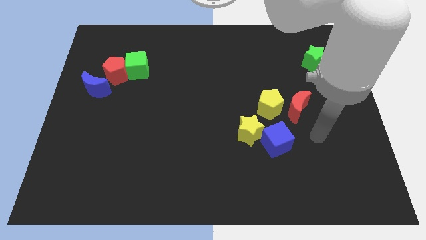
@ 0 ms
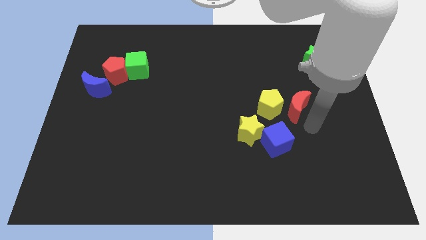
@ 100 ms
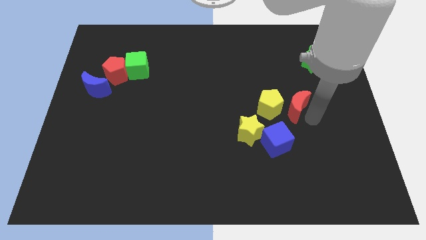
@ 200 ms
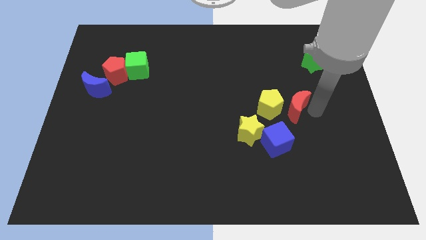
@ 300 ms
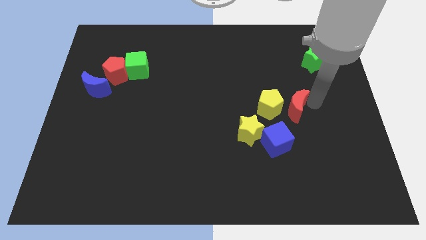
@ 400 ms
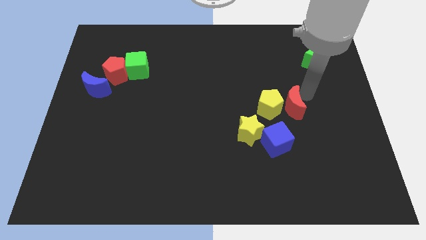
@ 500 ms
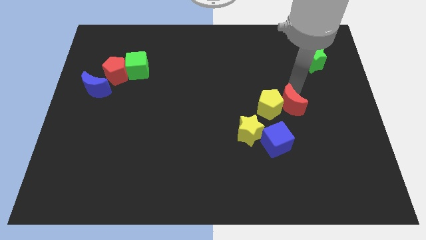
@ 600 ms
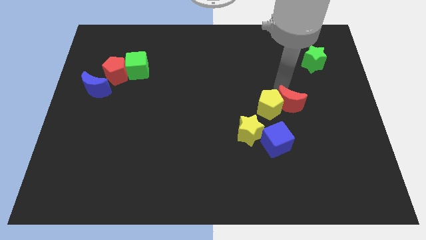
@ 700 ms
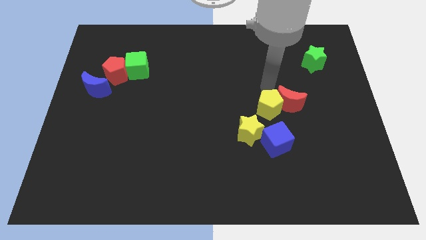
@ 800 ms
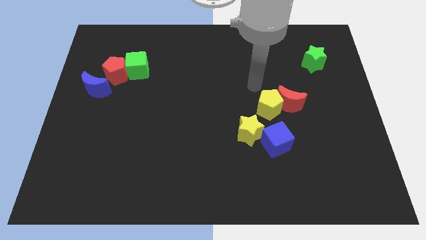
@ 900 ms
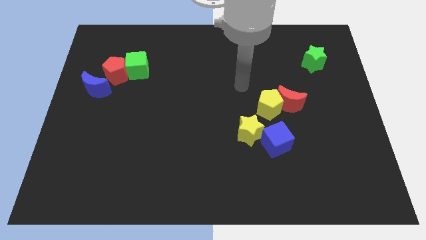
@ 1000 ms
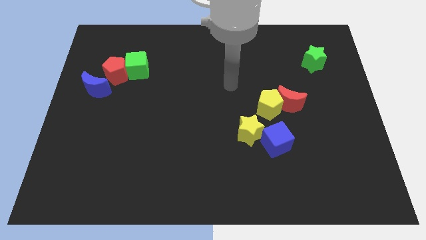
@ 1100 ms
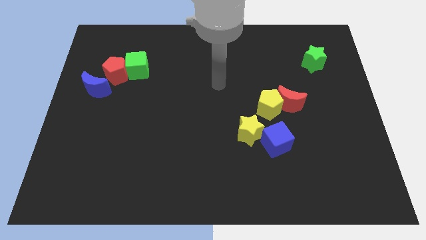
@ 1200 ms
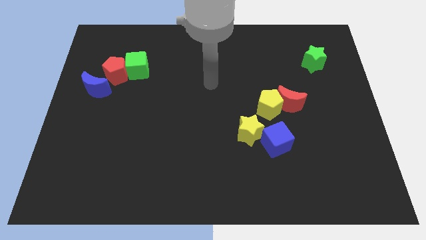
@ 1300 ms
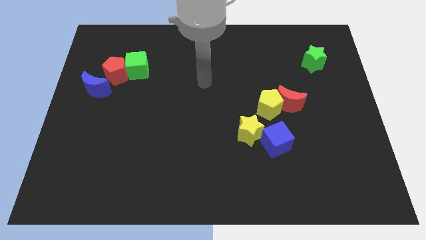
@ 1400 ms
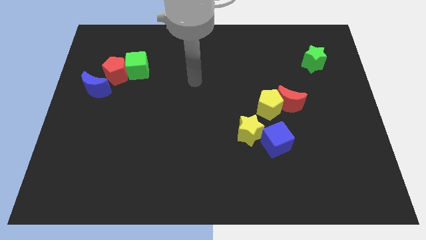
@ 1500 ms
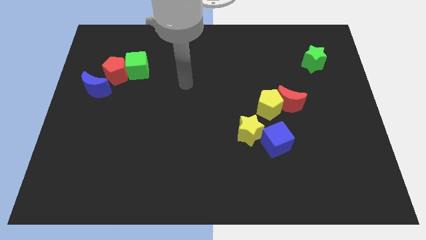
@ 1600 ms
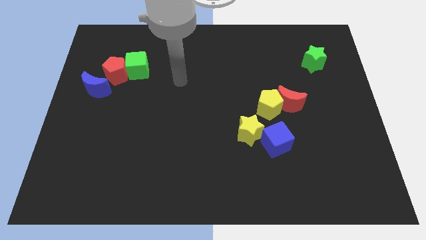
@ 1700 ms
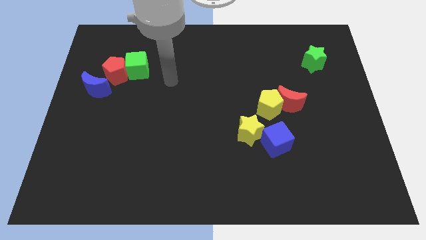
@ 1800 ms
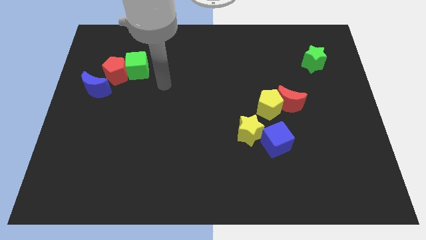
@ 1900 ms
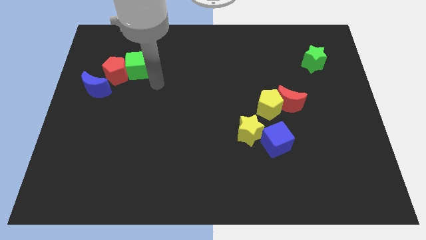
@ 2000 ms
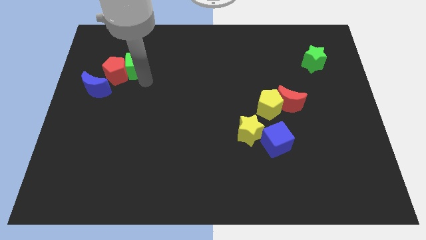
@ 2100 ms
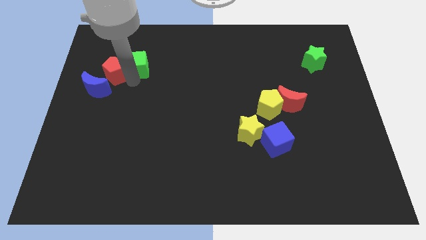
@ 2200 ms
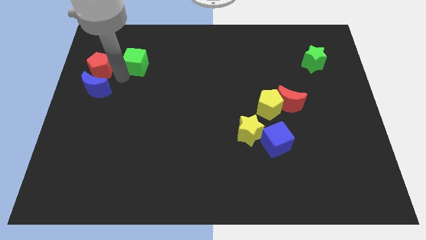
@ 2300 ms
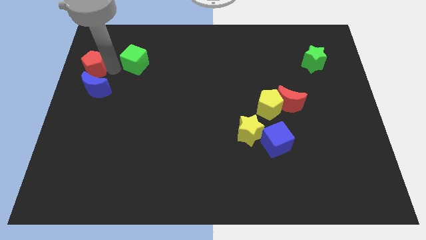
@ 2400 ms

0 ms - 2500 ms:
pull the green cube apart from the red pentagon

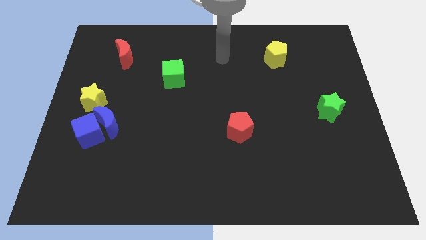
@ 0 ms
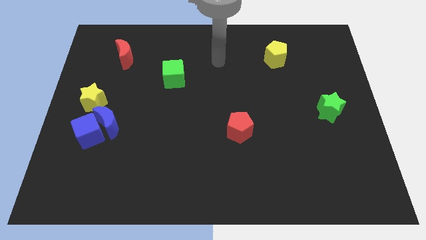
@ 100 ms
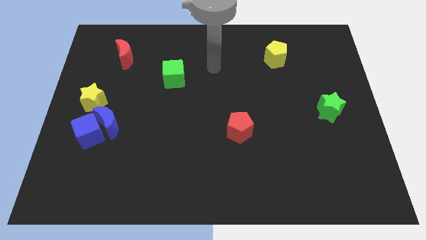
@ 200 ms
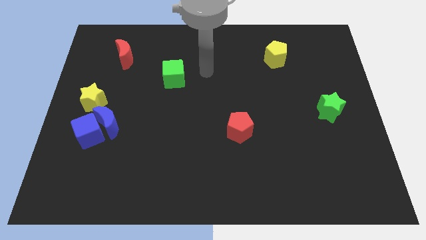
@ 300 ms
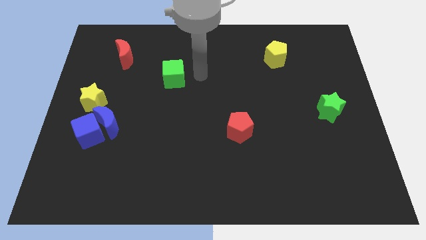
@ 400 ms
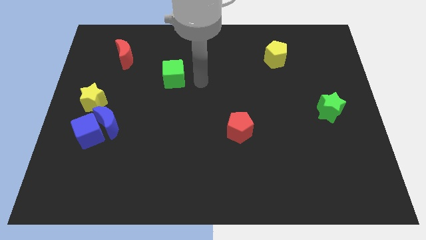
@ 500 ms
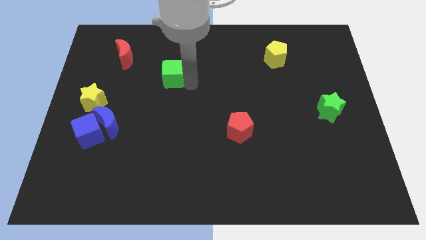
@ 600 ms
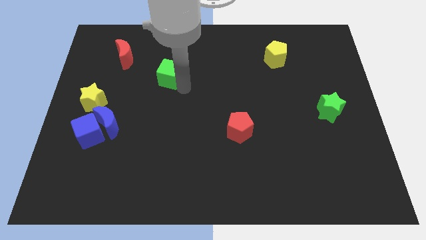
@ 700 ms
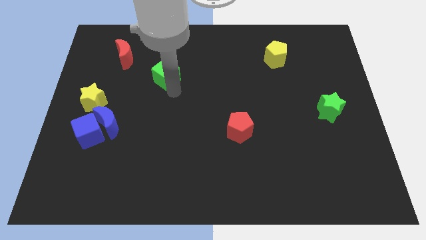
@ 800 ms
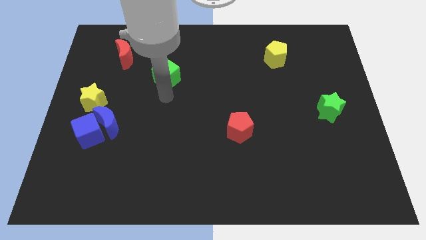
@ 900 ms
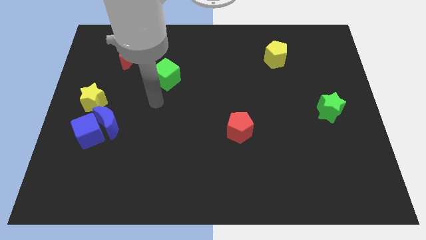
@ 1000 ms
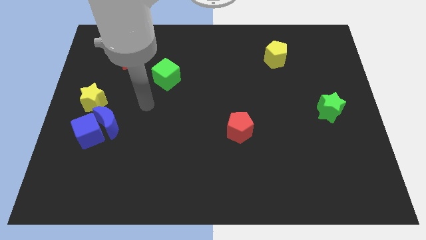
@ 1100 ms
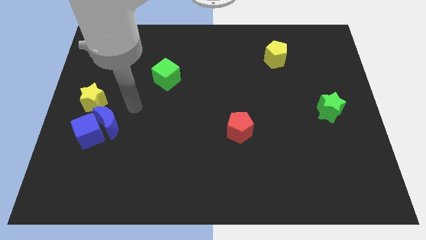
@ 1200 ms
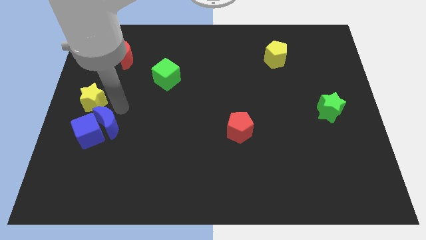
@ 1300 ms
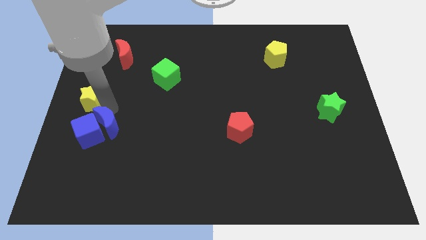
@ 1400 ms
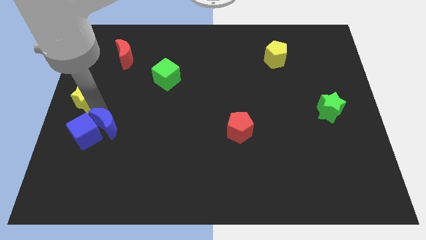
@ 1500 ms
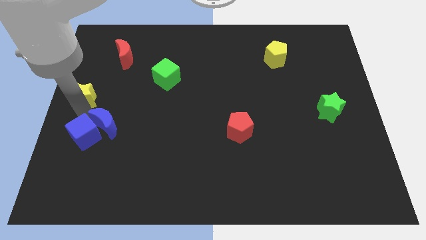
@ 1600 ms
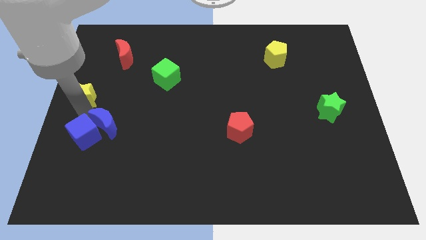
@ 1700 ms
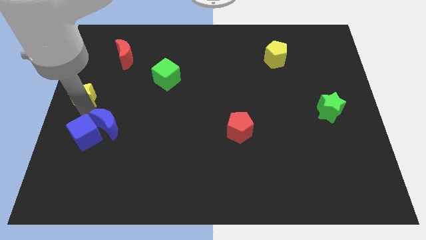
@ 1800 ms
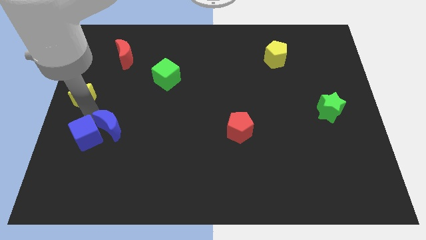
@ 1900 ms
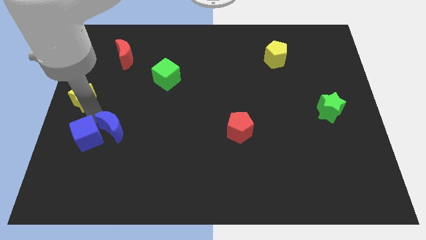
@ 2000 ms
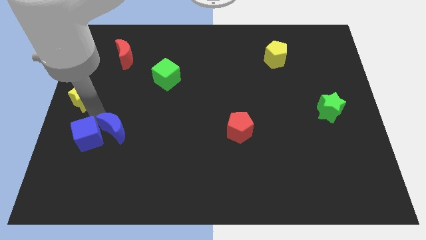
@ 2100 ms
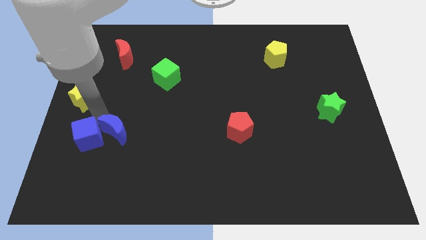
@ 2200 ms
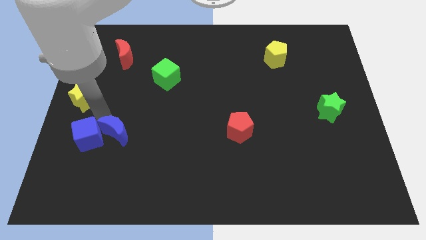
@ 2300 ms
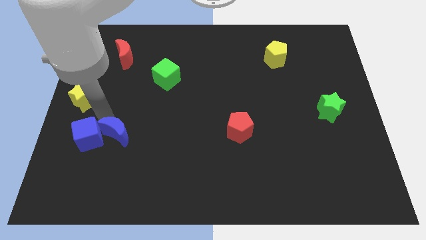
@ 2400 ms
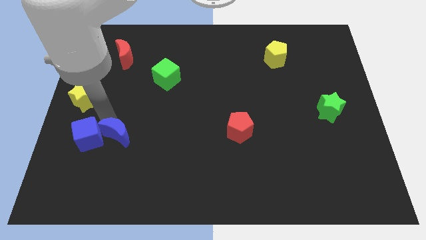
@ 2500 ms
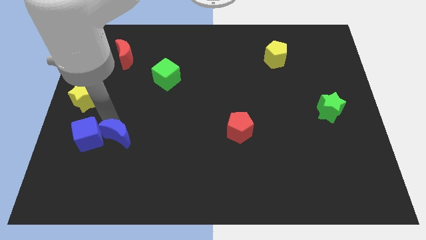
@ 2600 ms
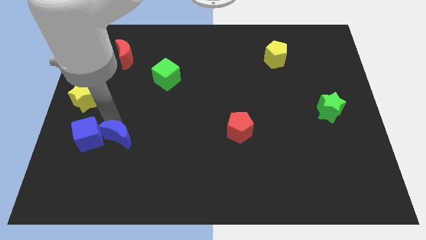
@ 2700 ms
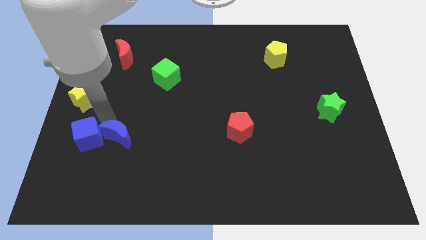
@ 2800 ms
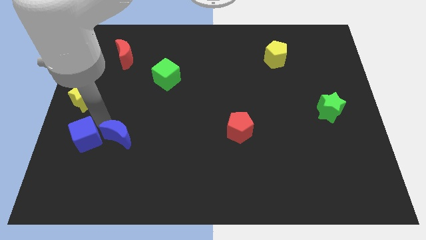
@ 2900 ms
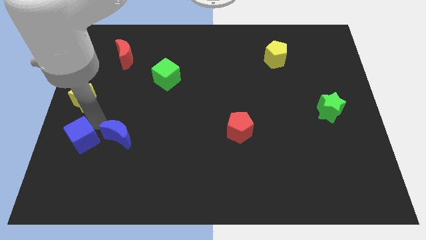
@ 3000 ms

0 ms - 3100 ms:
separate the blue moon from the blue cube and yellow star

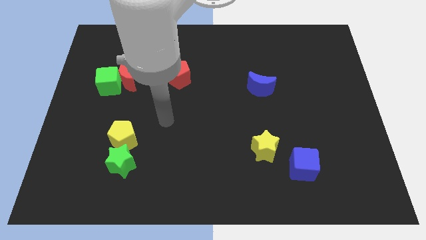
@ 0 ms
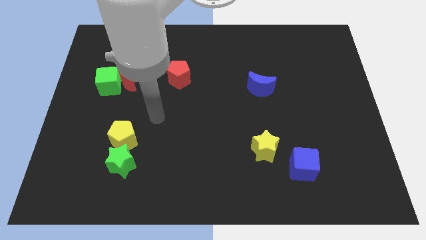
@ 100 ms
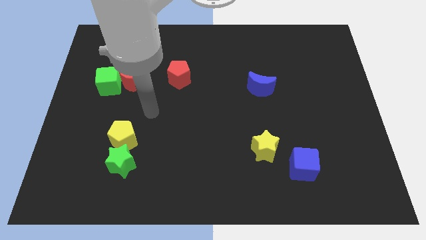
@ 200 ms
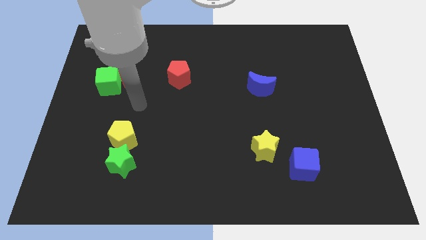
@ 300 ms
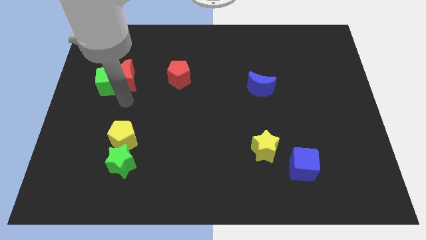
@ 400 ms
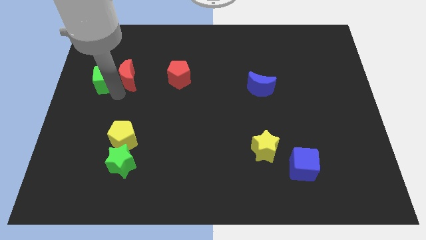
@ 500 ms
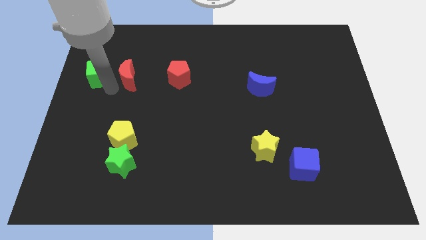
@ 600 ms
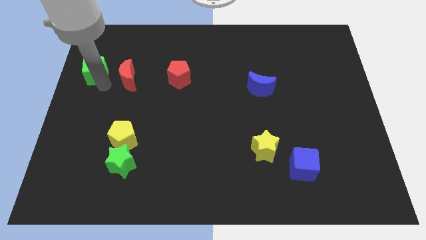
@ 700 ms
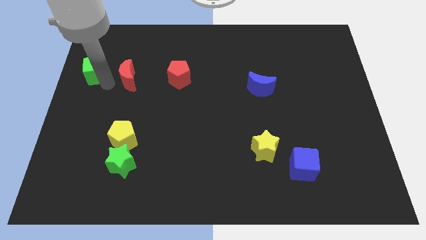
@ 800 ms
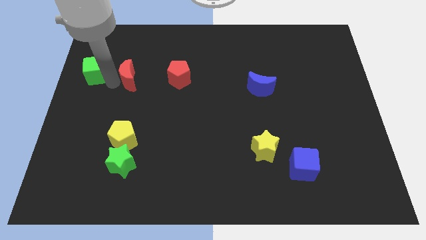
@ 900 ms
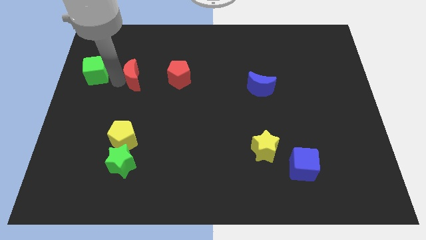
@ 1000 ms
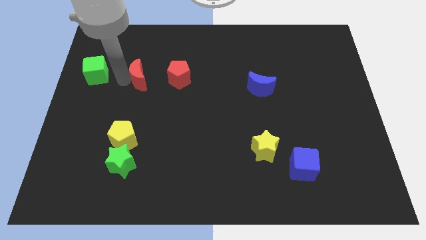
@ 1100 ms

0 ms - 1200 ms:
move the red moon away from the green cube

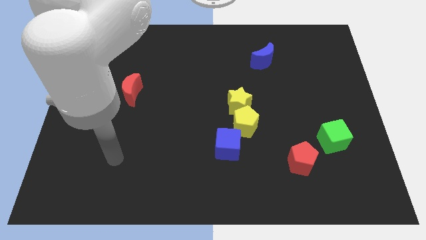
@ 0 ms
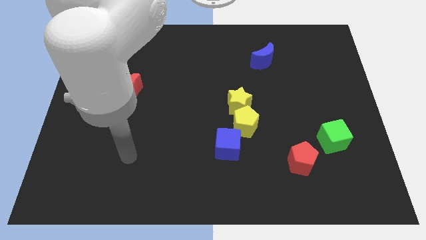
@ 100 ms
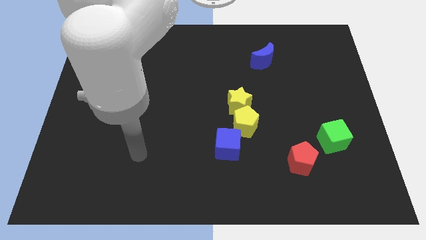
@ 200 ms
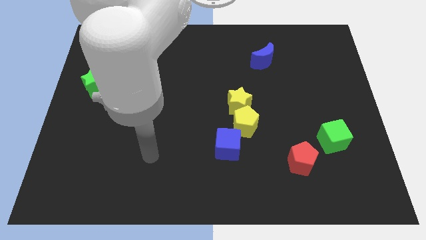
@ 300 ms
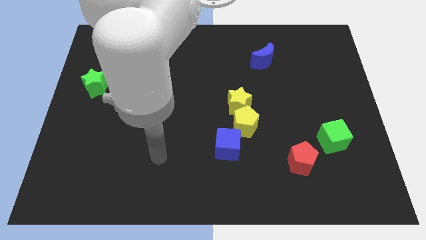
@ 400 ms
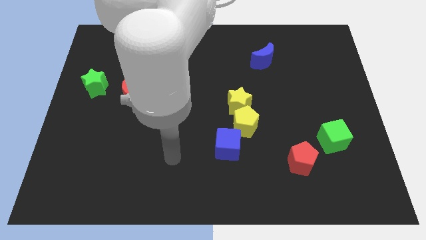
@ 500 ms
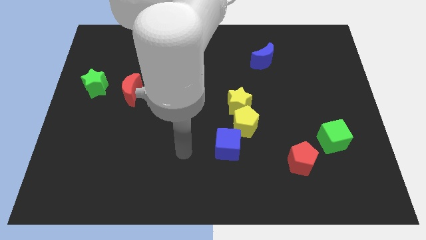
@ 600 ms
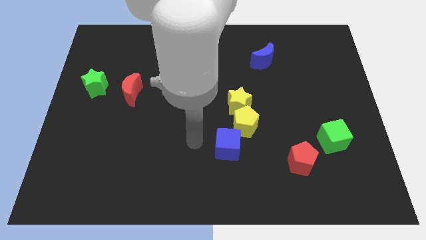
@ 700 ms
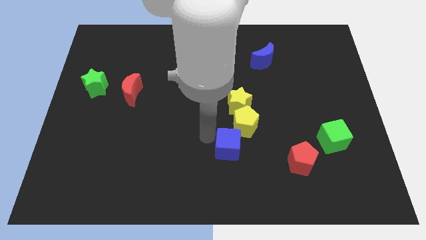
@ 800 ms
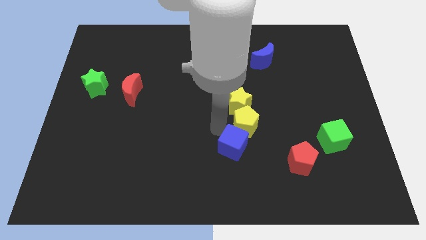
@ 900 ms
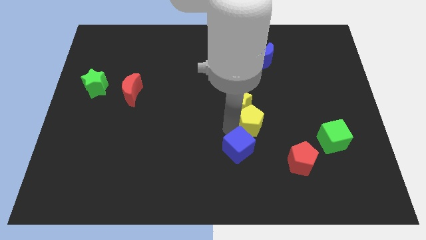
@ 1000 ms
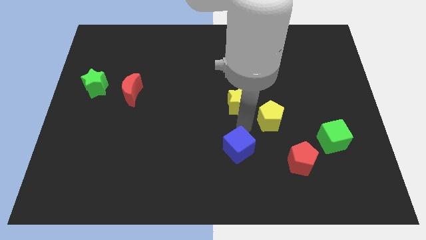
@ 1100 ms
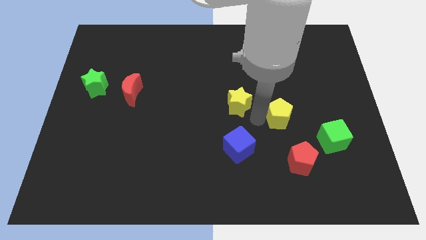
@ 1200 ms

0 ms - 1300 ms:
separate the yellow star from the yellow pentagon

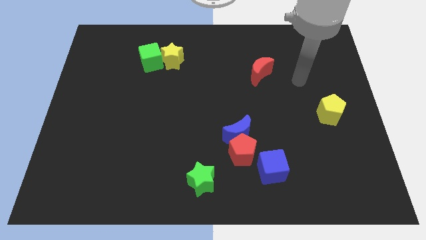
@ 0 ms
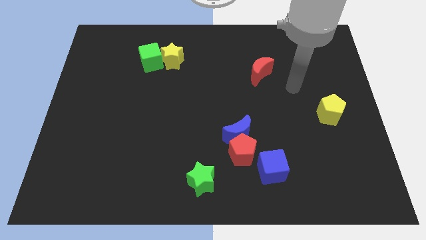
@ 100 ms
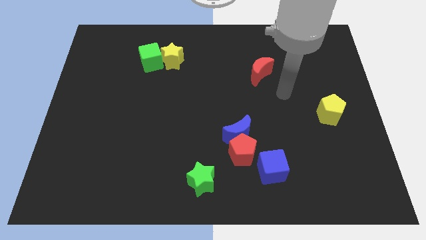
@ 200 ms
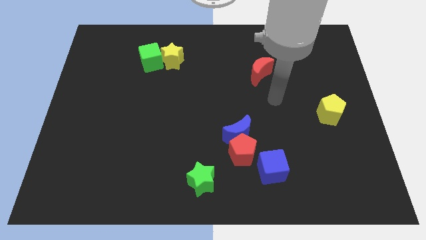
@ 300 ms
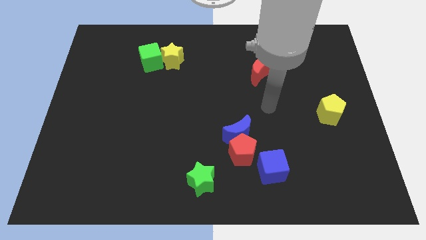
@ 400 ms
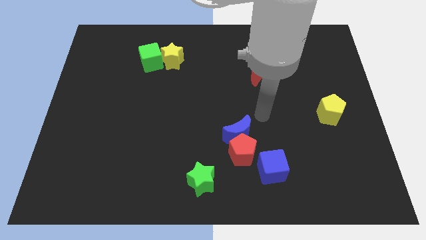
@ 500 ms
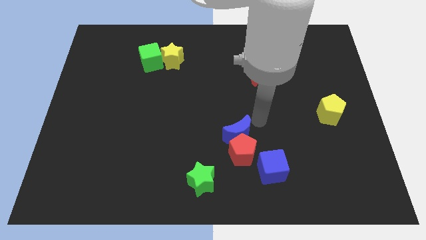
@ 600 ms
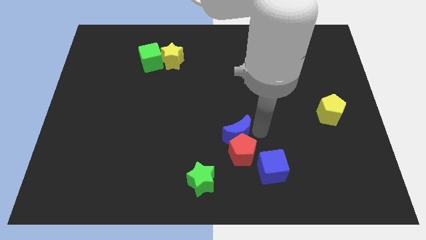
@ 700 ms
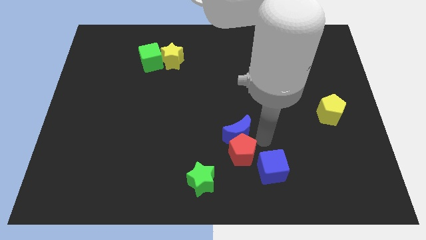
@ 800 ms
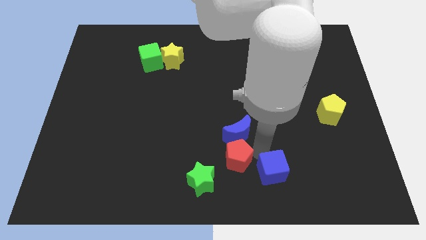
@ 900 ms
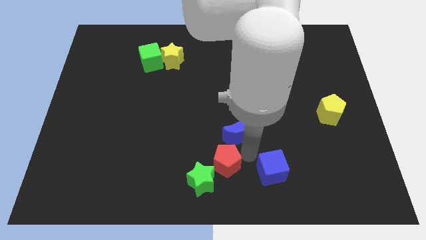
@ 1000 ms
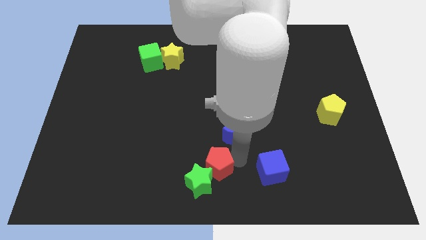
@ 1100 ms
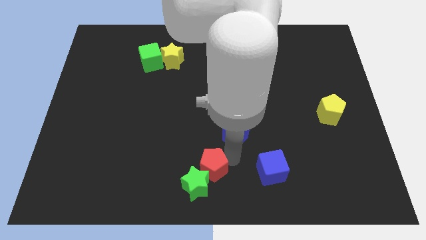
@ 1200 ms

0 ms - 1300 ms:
separate the blue moon from the red pentagon
